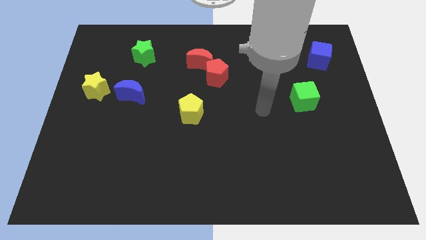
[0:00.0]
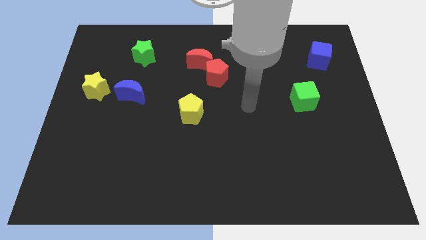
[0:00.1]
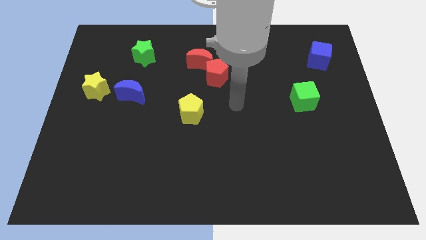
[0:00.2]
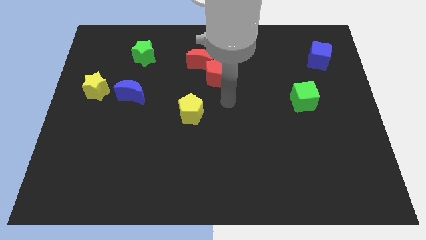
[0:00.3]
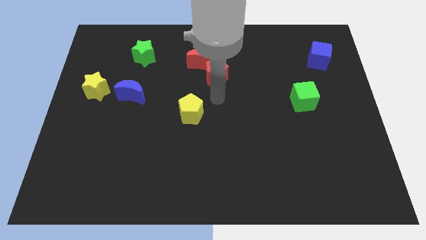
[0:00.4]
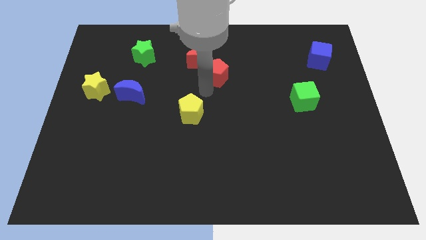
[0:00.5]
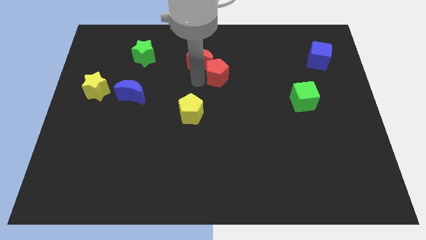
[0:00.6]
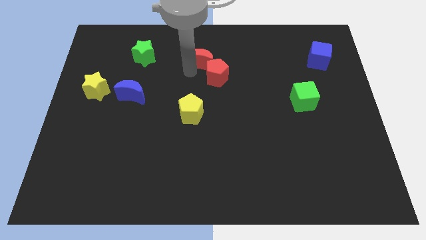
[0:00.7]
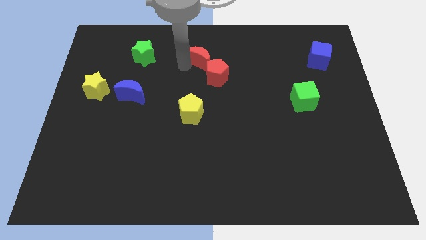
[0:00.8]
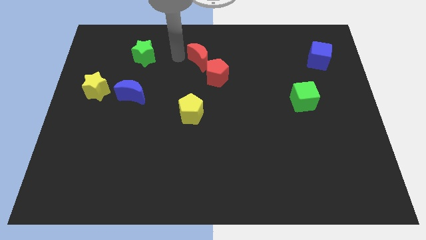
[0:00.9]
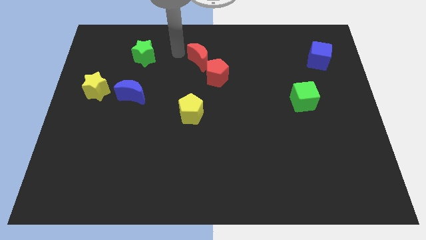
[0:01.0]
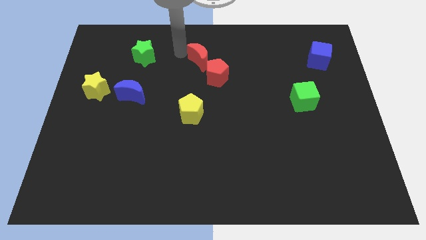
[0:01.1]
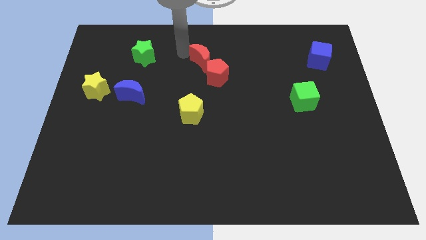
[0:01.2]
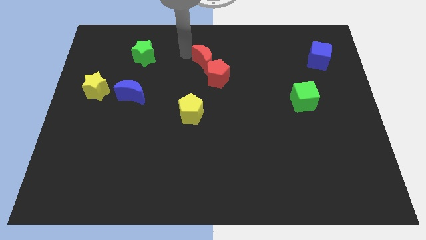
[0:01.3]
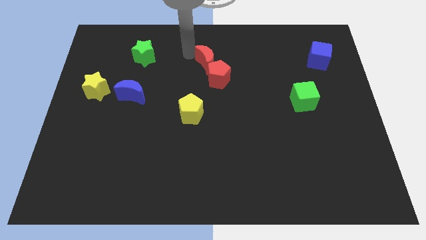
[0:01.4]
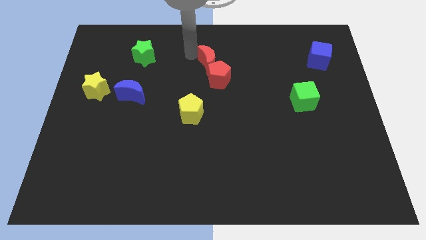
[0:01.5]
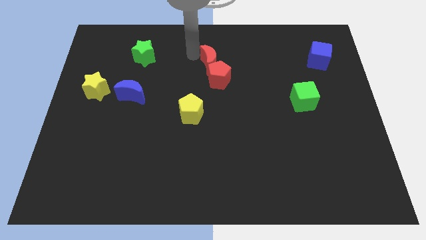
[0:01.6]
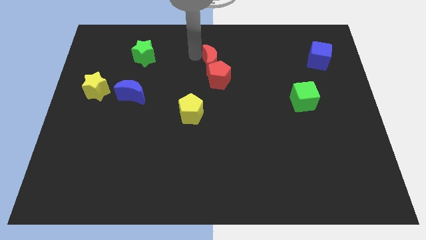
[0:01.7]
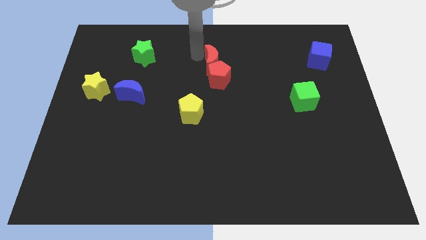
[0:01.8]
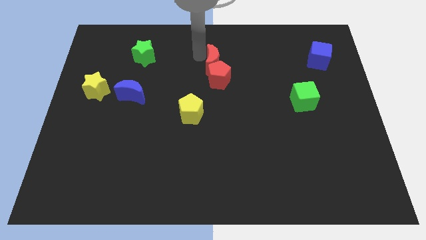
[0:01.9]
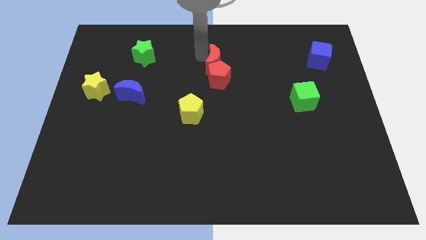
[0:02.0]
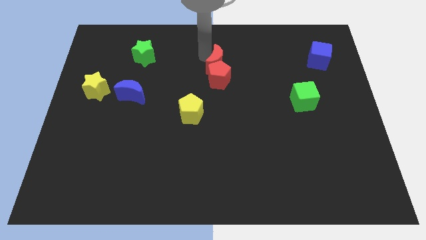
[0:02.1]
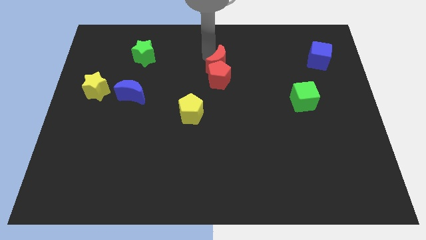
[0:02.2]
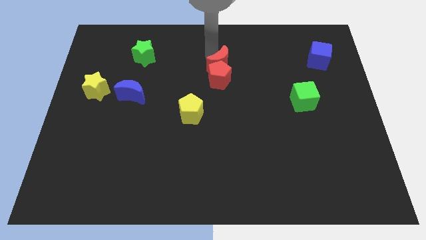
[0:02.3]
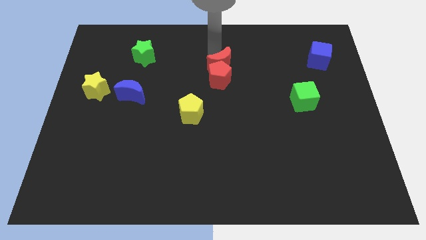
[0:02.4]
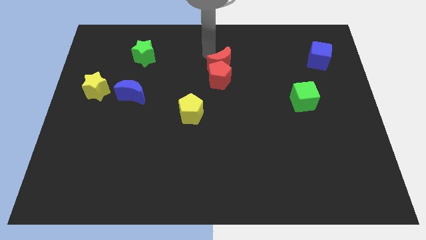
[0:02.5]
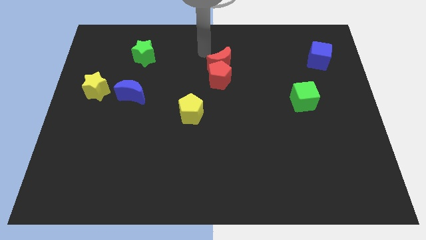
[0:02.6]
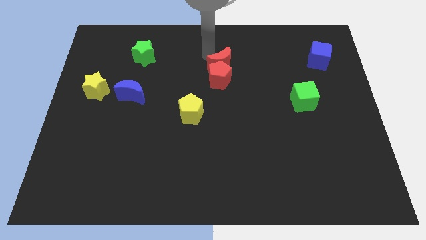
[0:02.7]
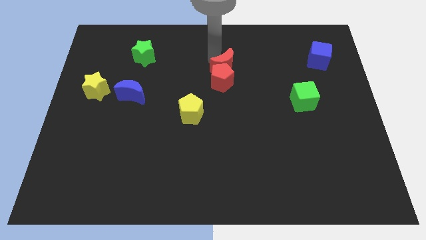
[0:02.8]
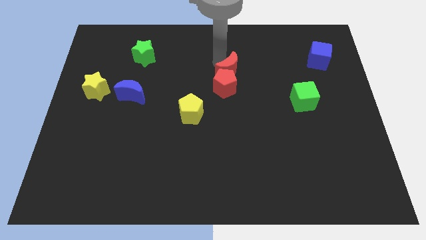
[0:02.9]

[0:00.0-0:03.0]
move the red moon a little bit downwards and right

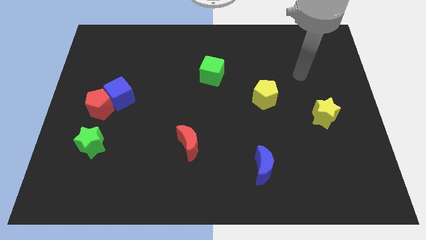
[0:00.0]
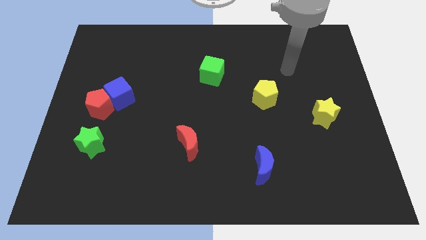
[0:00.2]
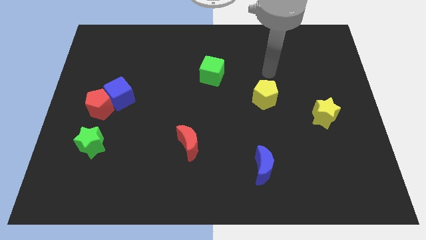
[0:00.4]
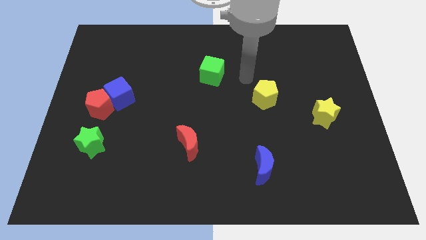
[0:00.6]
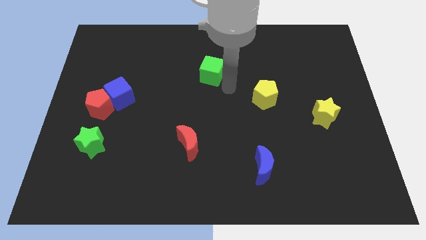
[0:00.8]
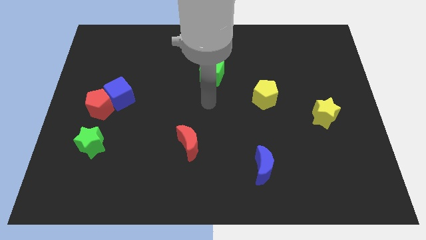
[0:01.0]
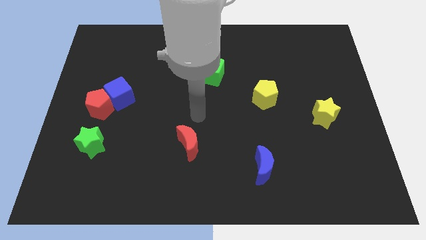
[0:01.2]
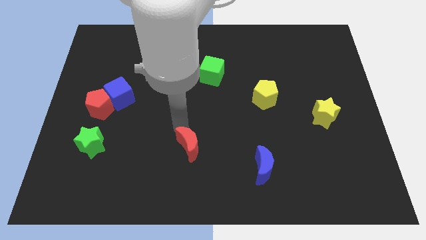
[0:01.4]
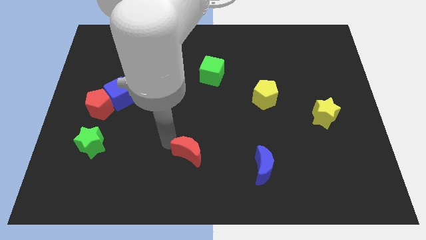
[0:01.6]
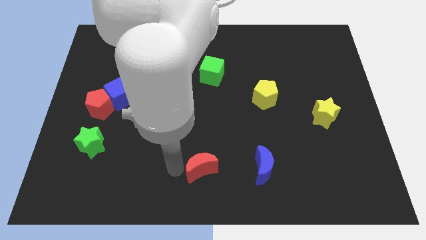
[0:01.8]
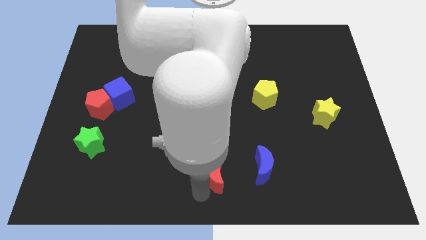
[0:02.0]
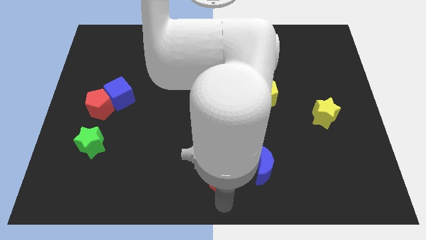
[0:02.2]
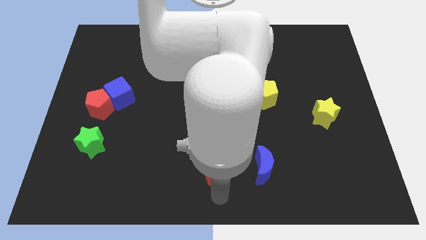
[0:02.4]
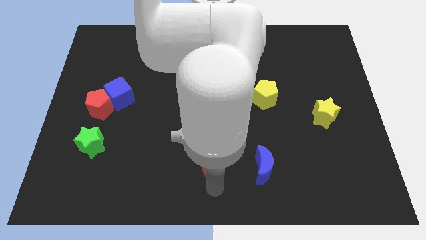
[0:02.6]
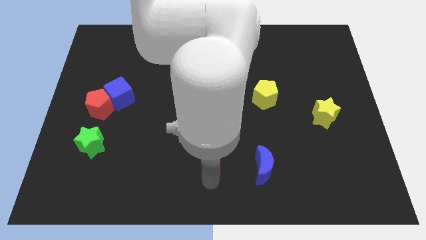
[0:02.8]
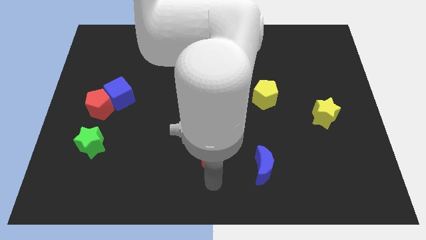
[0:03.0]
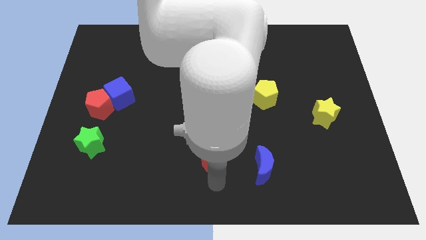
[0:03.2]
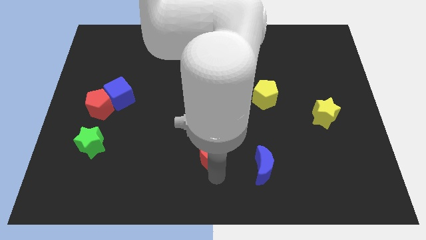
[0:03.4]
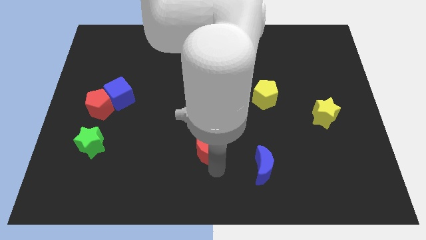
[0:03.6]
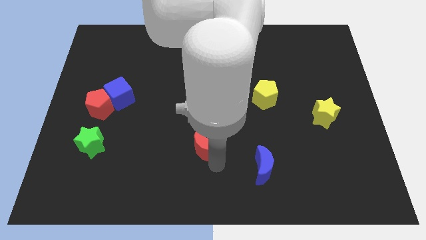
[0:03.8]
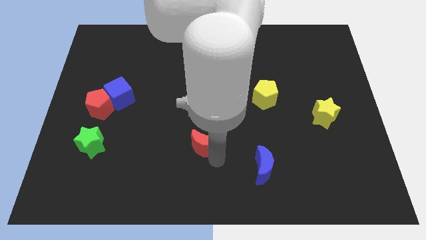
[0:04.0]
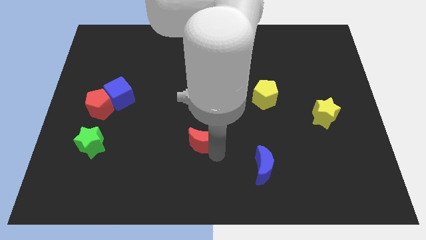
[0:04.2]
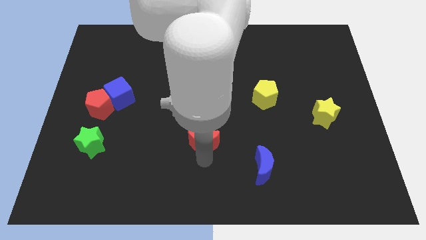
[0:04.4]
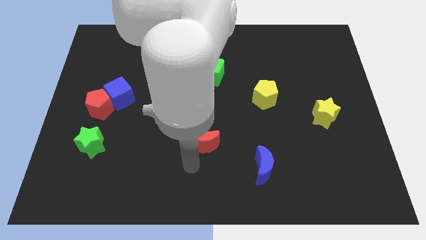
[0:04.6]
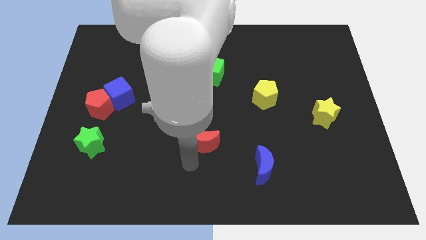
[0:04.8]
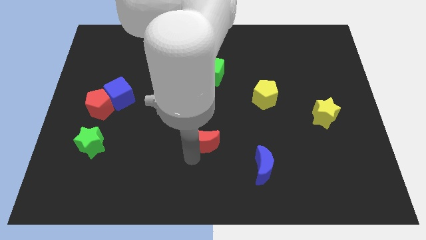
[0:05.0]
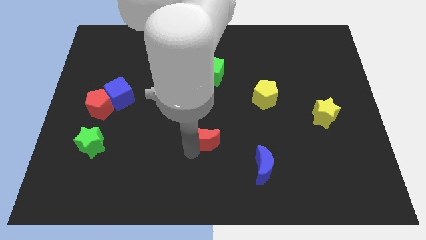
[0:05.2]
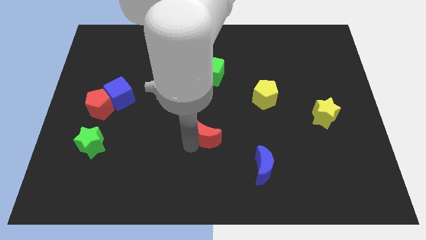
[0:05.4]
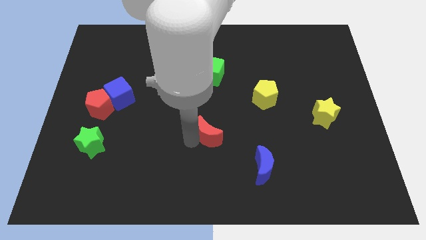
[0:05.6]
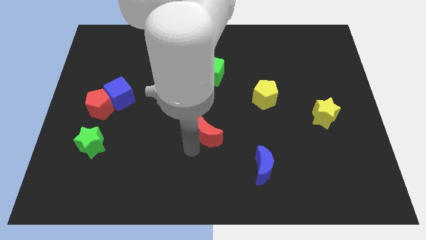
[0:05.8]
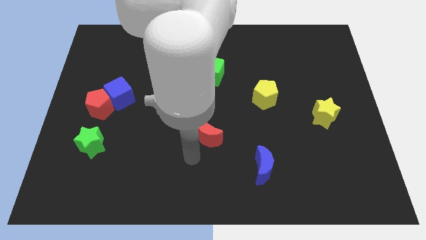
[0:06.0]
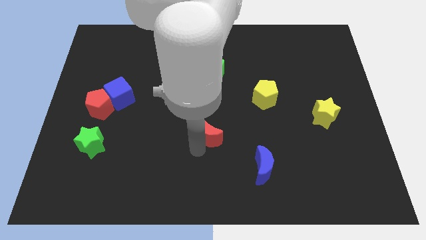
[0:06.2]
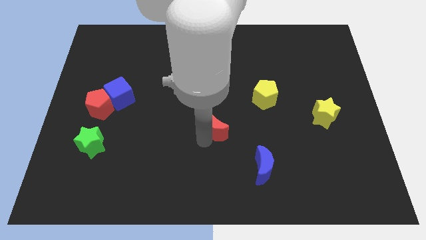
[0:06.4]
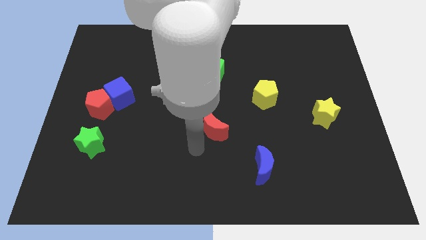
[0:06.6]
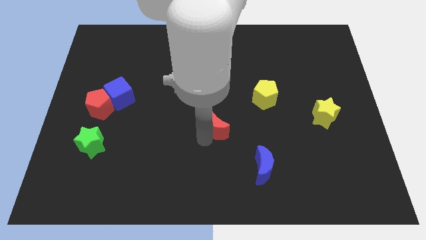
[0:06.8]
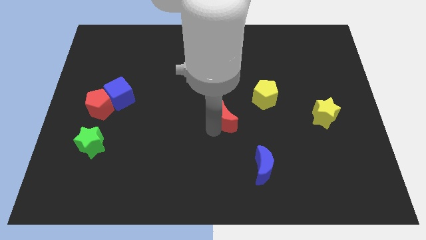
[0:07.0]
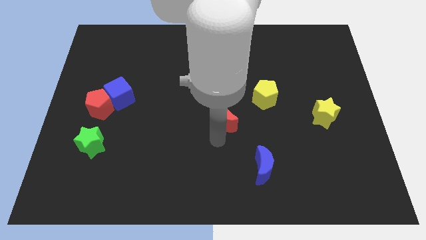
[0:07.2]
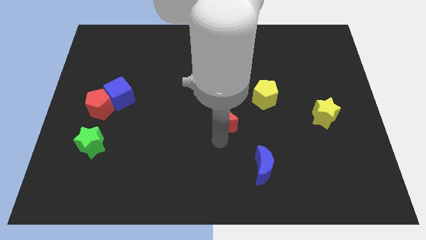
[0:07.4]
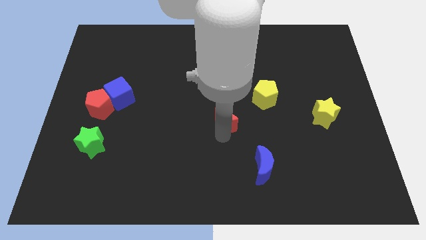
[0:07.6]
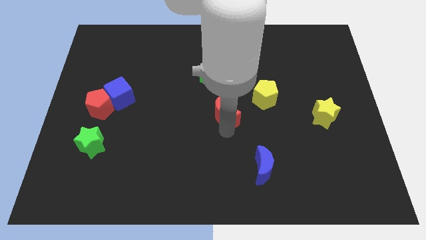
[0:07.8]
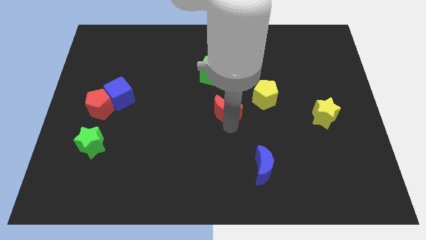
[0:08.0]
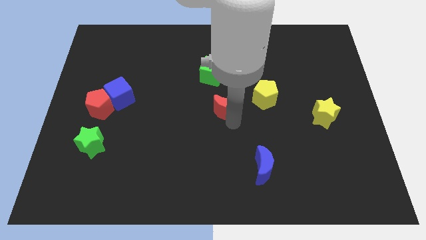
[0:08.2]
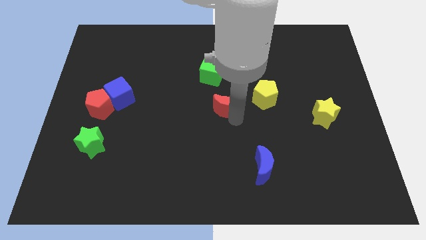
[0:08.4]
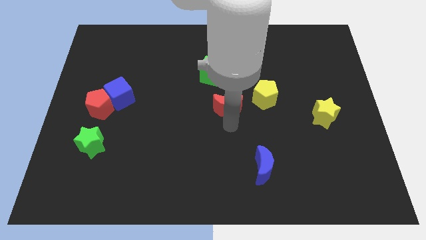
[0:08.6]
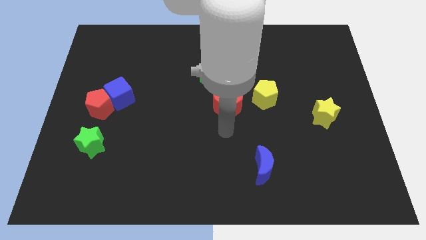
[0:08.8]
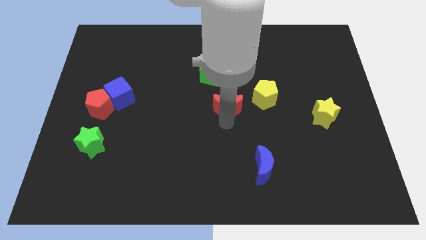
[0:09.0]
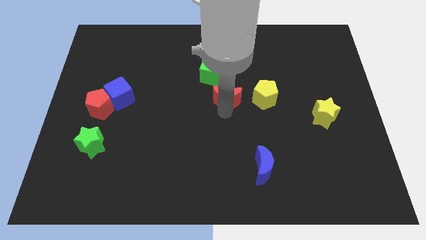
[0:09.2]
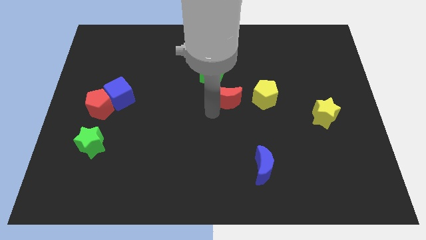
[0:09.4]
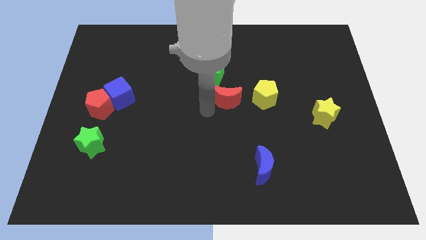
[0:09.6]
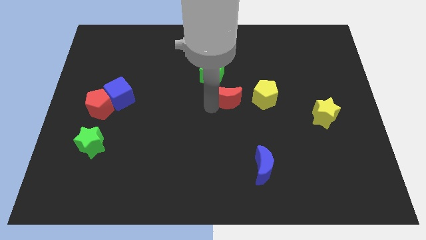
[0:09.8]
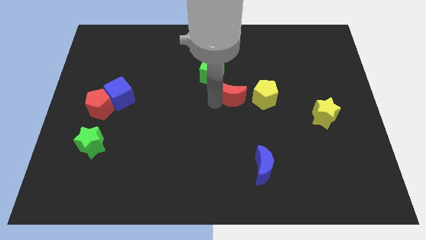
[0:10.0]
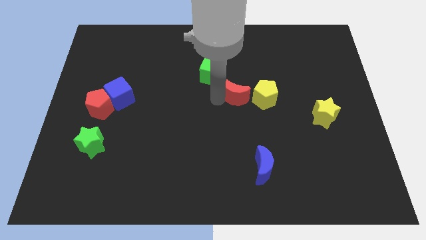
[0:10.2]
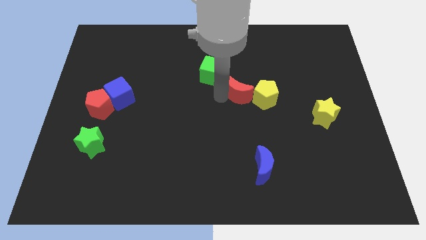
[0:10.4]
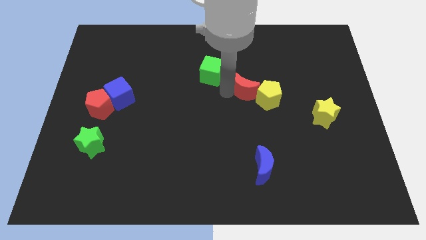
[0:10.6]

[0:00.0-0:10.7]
slide the red moon diagonally upwards and right
